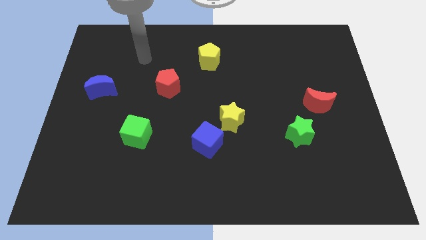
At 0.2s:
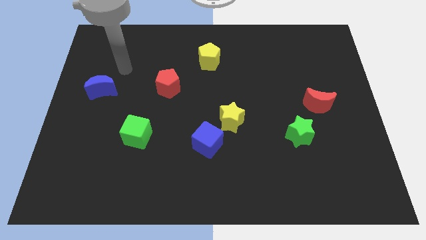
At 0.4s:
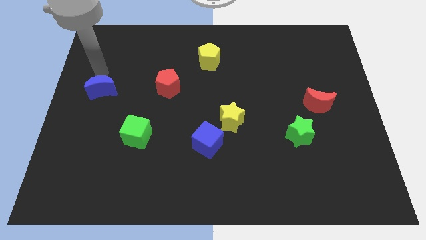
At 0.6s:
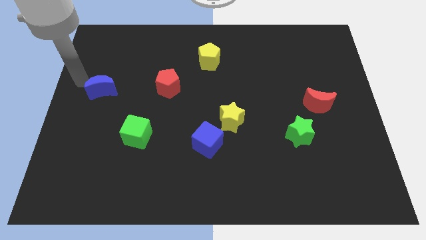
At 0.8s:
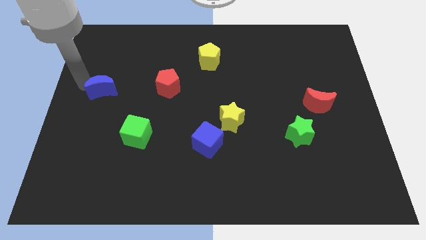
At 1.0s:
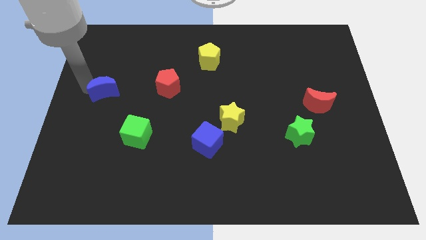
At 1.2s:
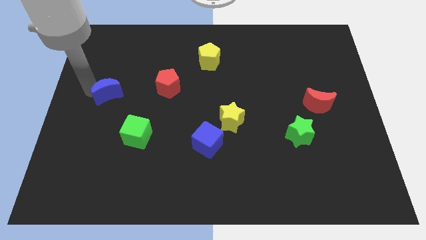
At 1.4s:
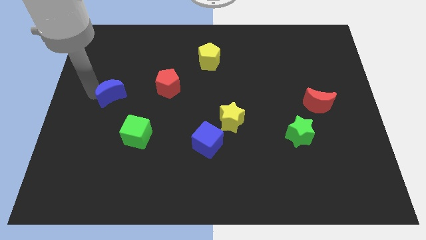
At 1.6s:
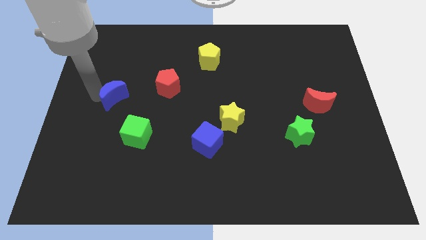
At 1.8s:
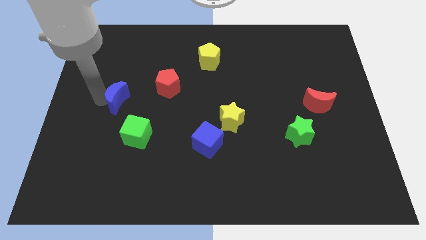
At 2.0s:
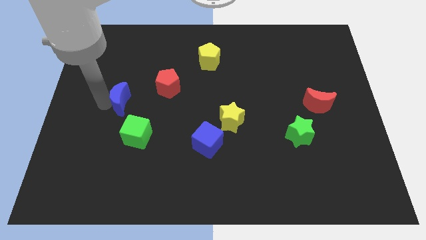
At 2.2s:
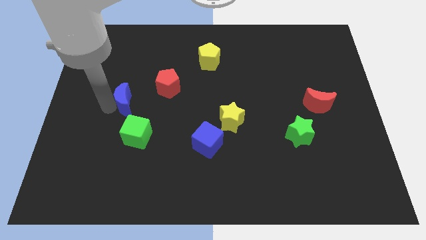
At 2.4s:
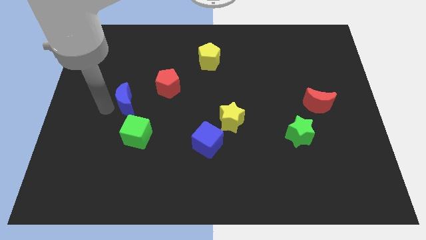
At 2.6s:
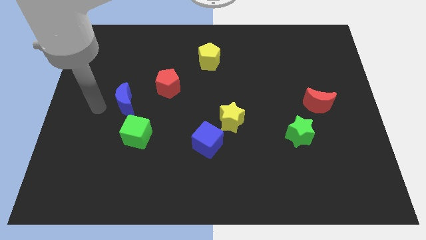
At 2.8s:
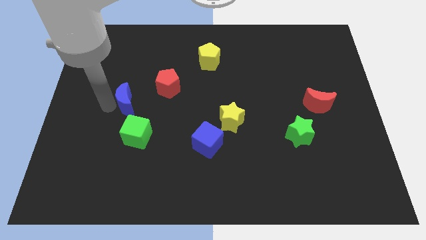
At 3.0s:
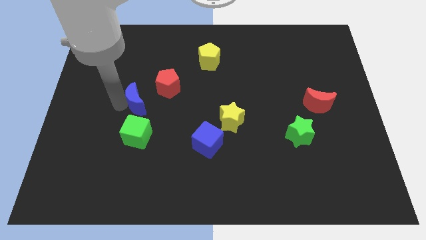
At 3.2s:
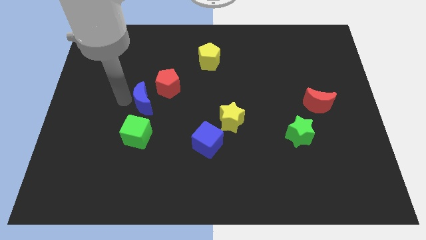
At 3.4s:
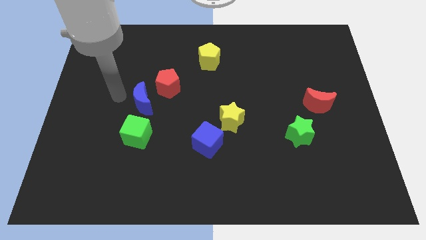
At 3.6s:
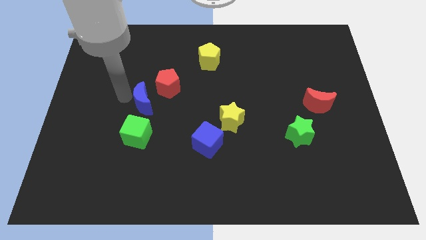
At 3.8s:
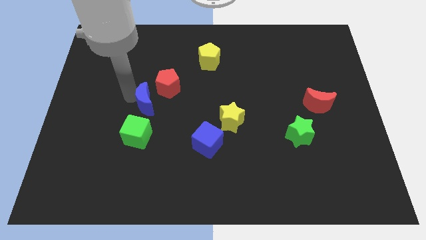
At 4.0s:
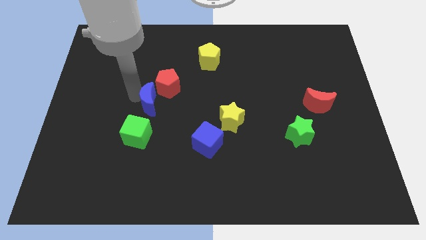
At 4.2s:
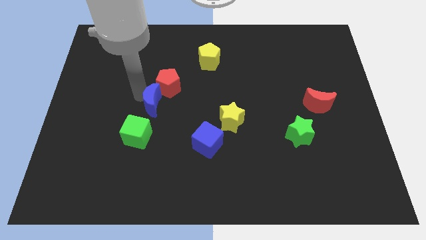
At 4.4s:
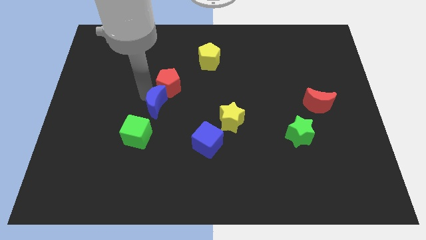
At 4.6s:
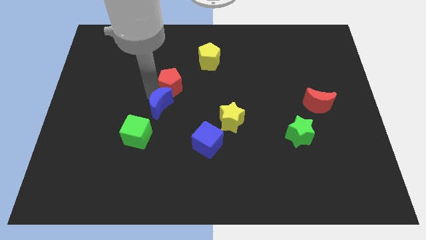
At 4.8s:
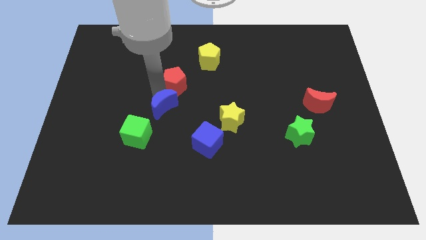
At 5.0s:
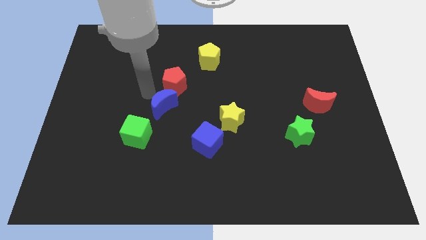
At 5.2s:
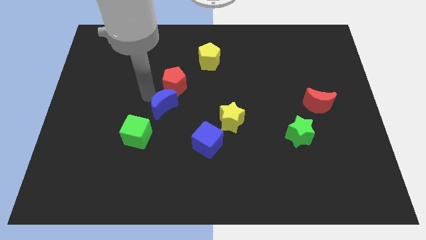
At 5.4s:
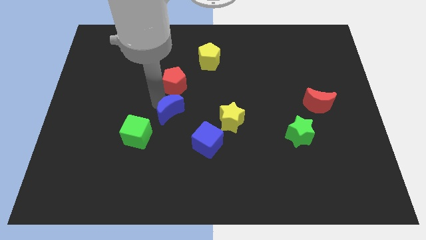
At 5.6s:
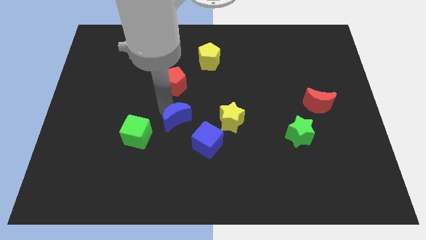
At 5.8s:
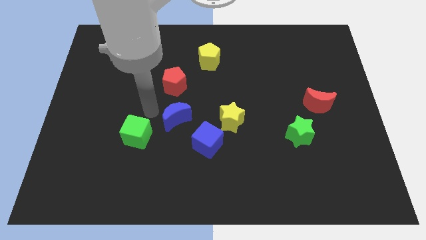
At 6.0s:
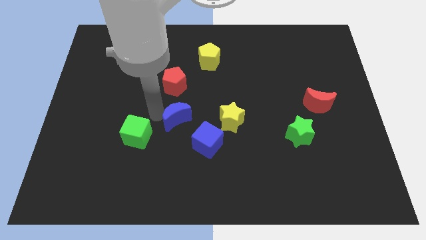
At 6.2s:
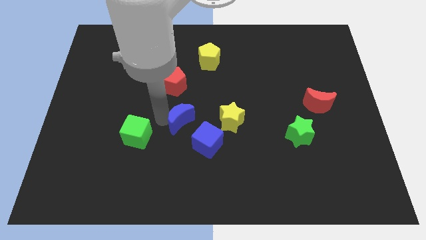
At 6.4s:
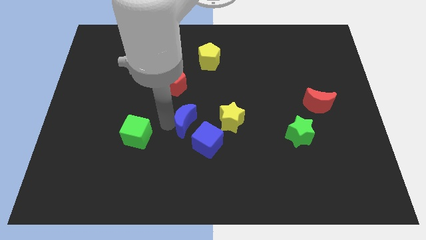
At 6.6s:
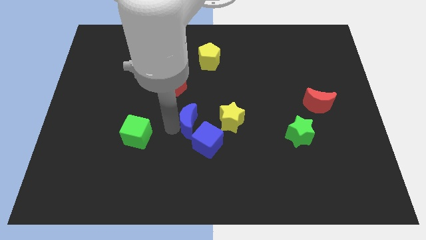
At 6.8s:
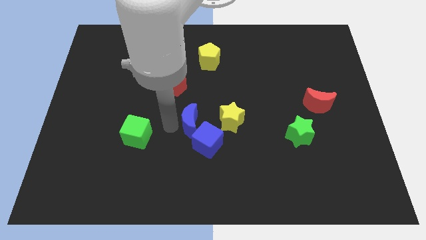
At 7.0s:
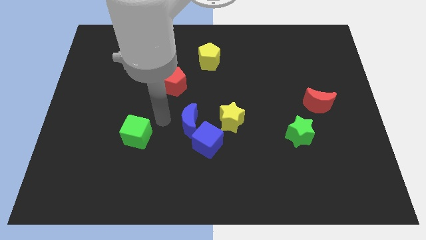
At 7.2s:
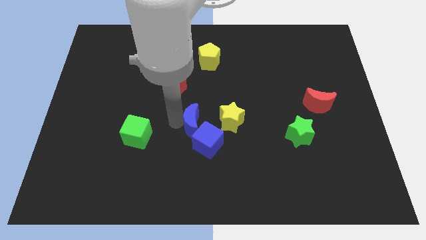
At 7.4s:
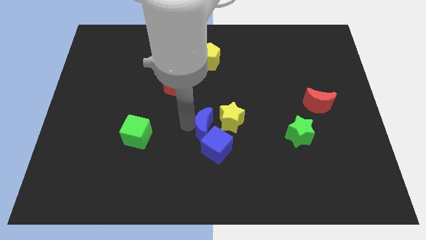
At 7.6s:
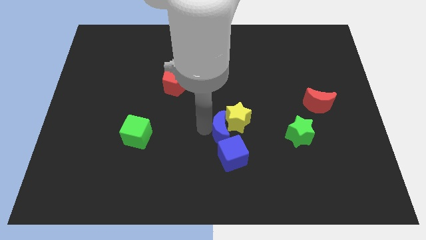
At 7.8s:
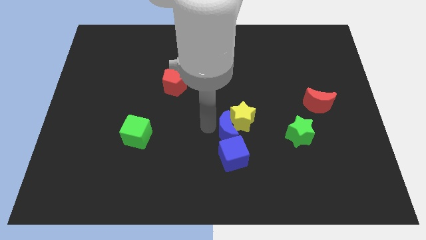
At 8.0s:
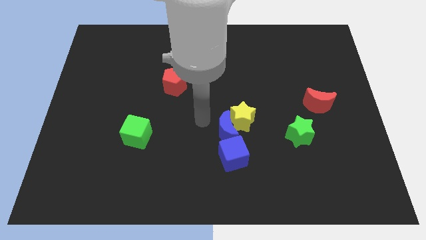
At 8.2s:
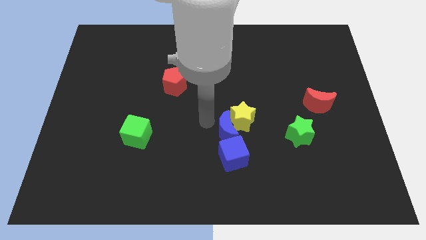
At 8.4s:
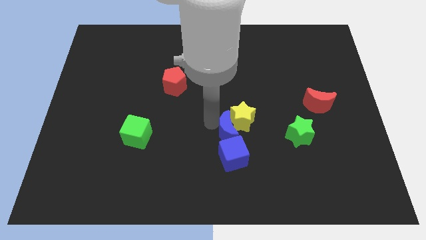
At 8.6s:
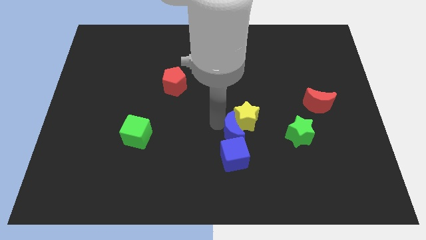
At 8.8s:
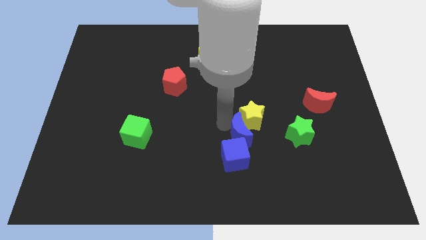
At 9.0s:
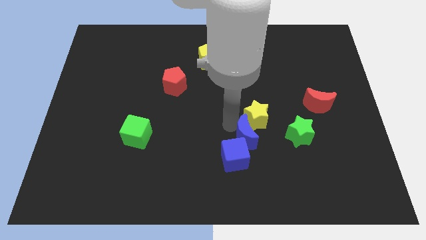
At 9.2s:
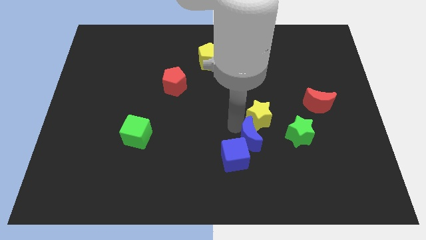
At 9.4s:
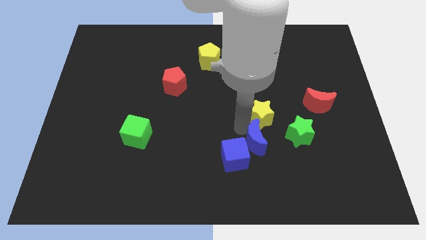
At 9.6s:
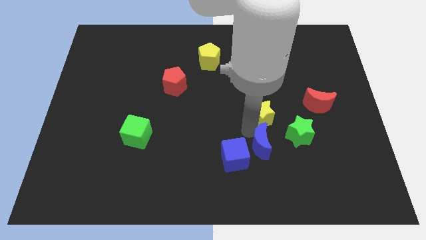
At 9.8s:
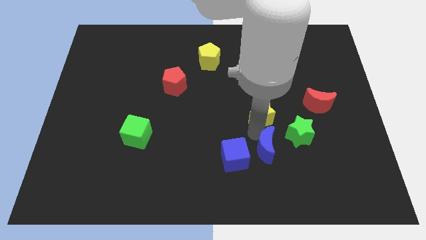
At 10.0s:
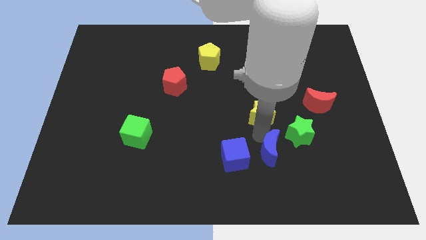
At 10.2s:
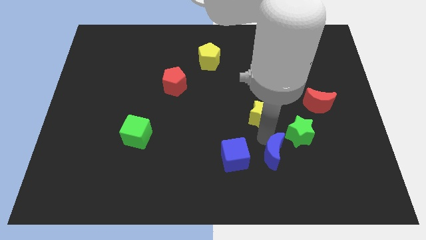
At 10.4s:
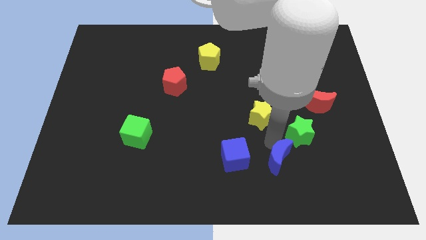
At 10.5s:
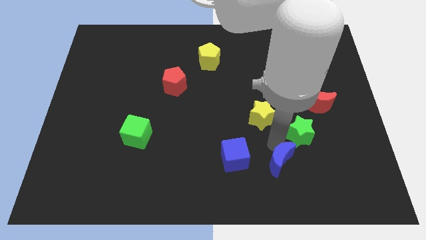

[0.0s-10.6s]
put the blue moon below the green star

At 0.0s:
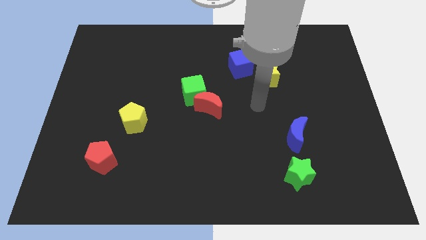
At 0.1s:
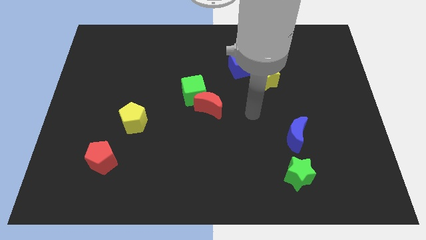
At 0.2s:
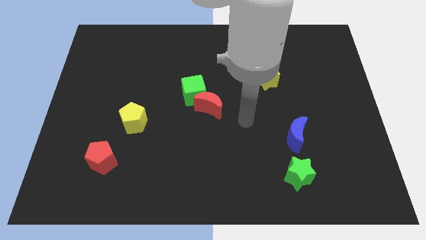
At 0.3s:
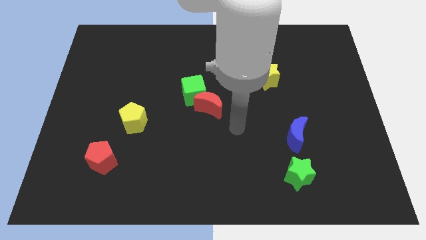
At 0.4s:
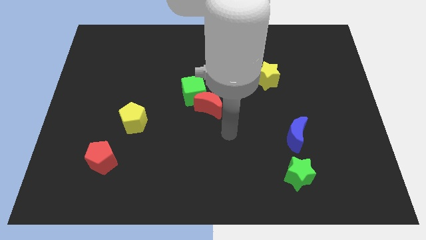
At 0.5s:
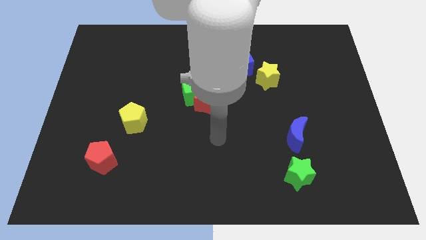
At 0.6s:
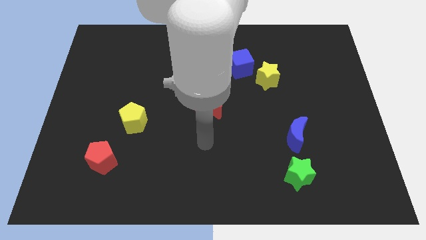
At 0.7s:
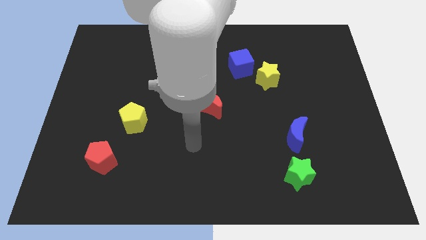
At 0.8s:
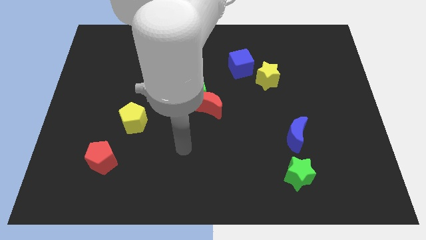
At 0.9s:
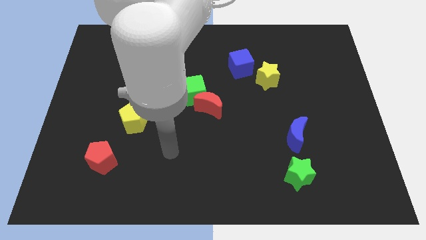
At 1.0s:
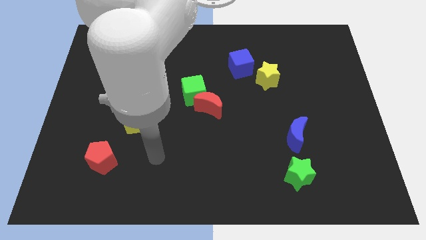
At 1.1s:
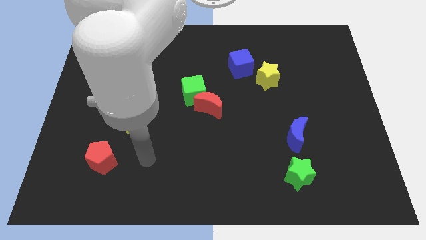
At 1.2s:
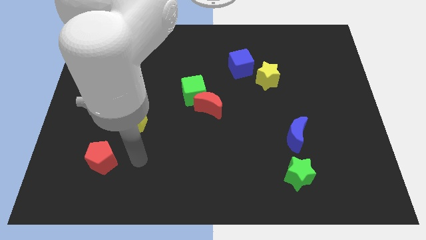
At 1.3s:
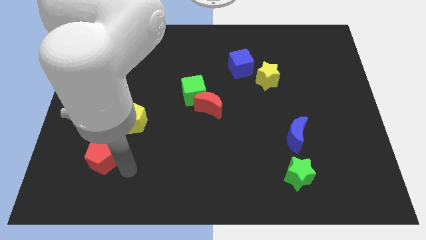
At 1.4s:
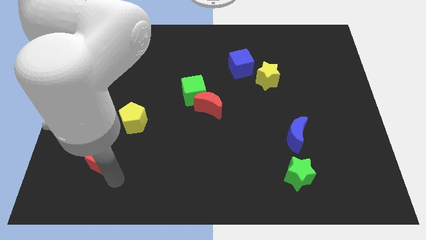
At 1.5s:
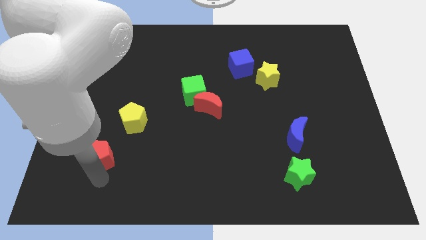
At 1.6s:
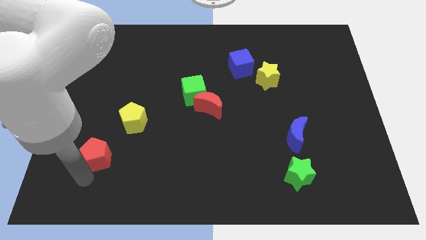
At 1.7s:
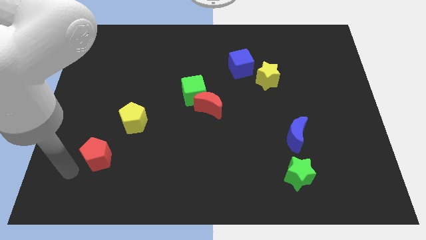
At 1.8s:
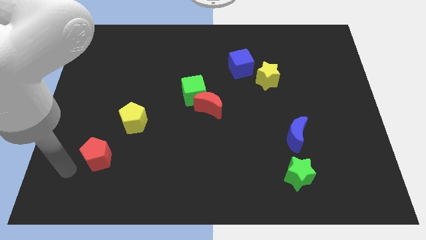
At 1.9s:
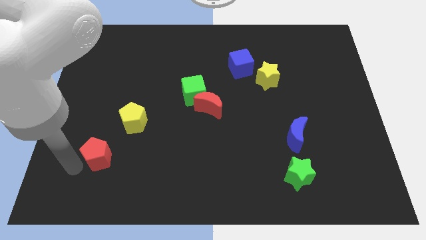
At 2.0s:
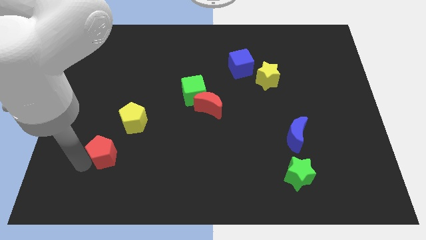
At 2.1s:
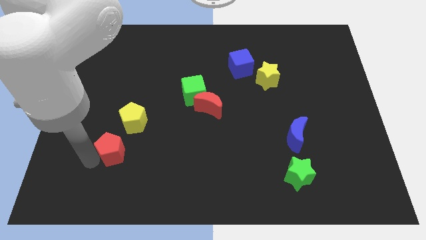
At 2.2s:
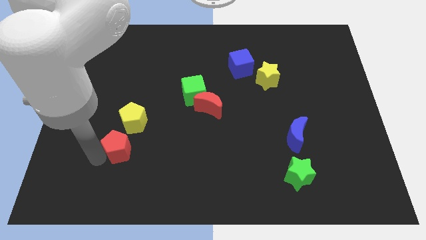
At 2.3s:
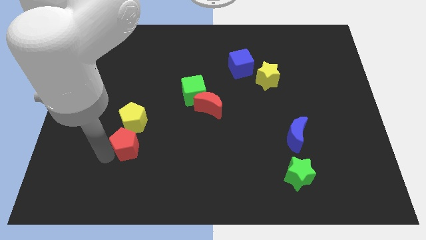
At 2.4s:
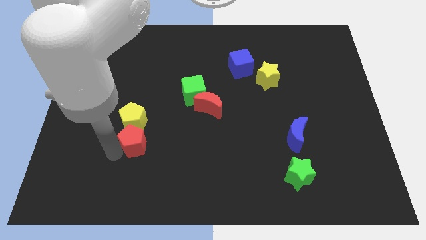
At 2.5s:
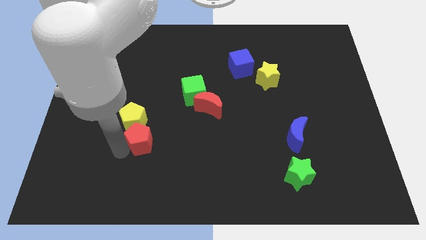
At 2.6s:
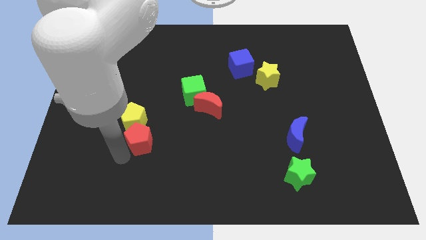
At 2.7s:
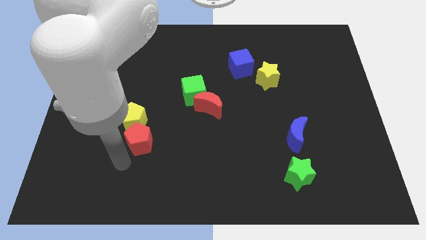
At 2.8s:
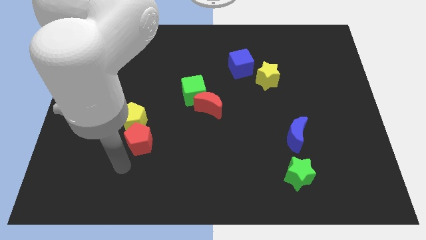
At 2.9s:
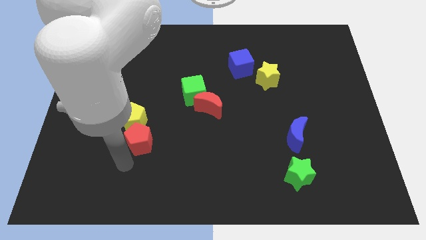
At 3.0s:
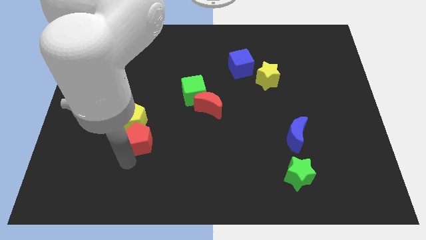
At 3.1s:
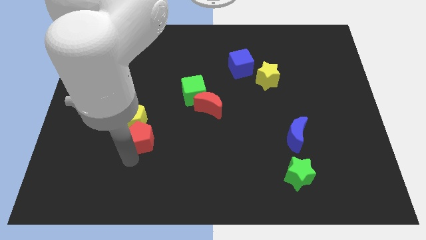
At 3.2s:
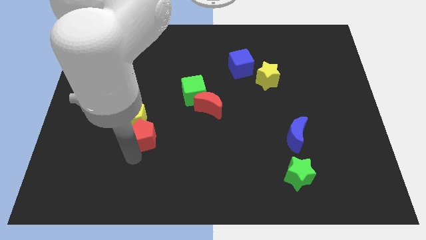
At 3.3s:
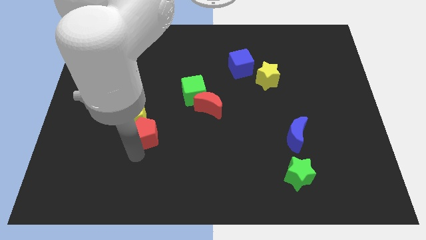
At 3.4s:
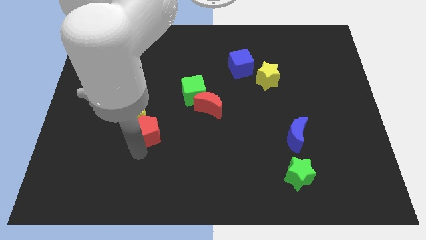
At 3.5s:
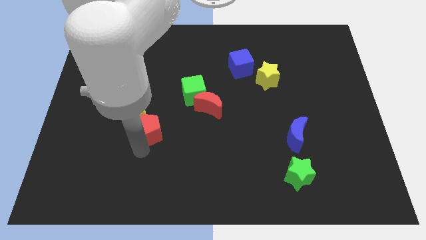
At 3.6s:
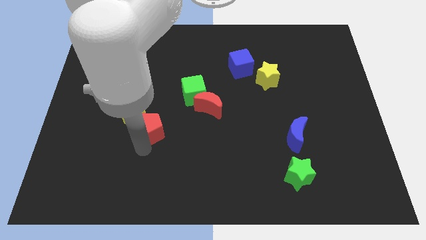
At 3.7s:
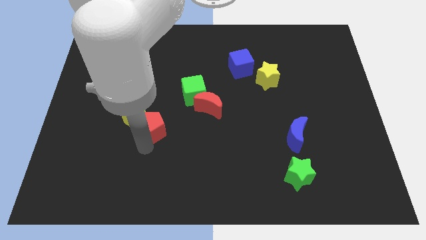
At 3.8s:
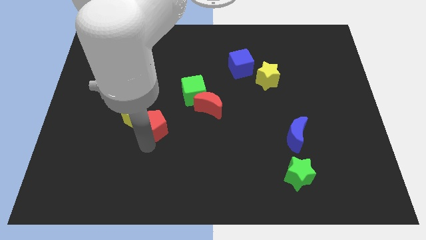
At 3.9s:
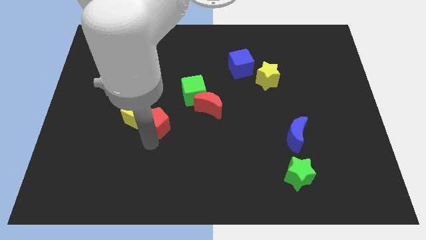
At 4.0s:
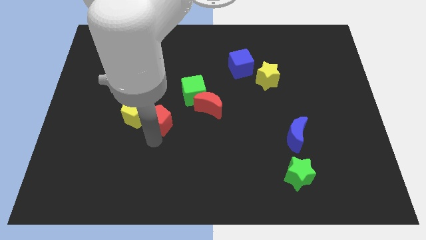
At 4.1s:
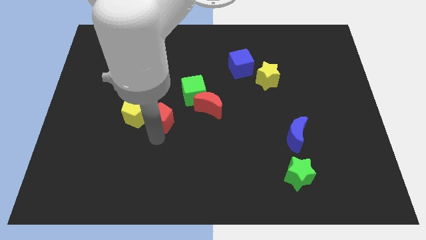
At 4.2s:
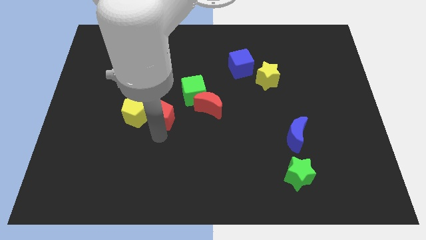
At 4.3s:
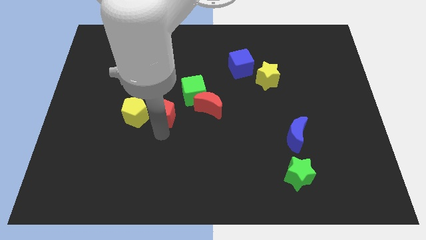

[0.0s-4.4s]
move the red pentagon to the top right side of the yellow pentagon
